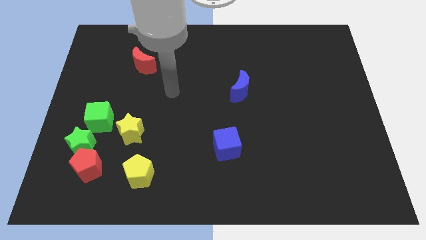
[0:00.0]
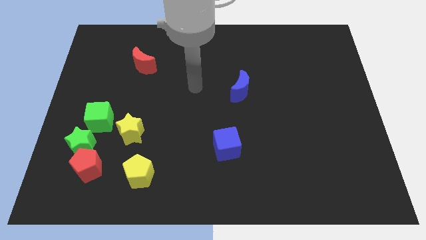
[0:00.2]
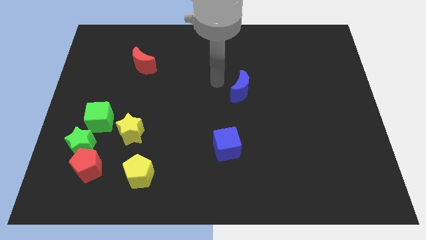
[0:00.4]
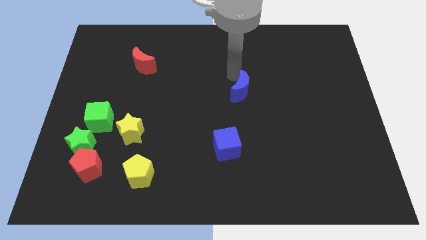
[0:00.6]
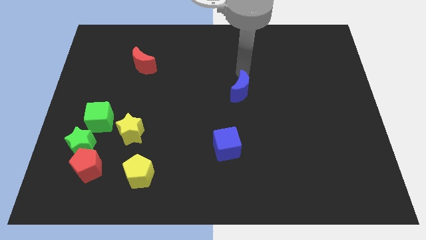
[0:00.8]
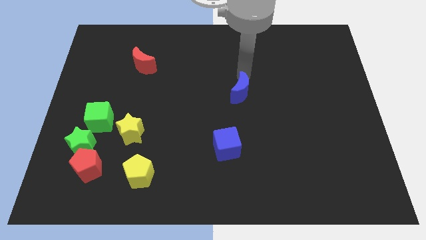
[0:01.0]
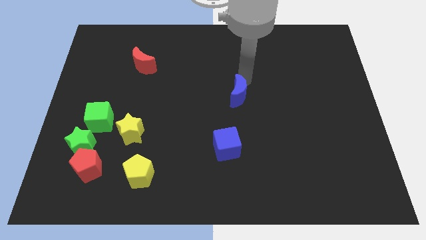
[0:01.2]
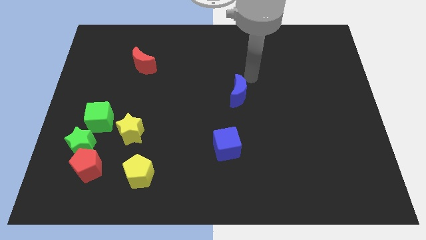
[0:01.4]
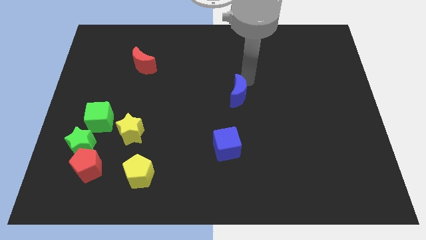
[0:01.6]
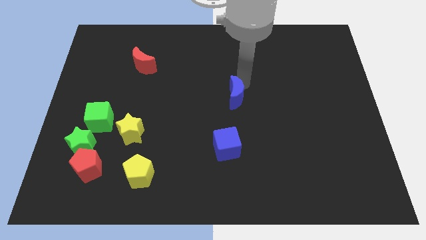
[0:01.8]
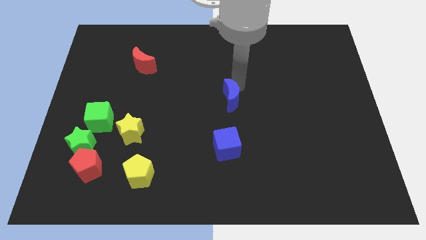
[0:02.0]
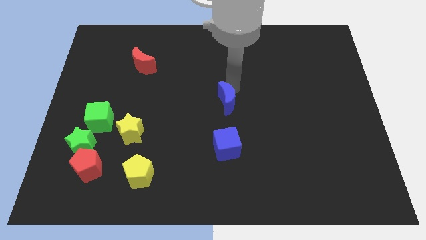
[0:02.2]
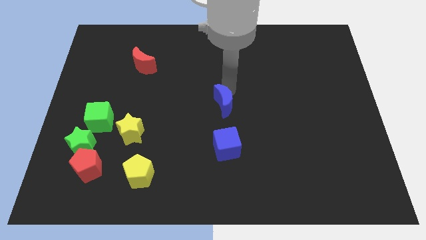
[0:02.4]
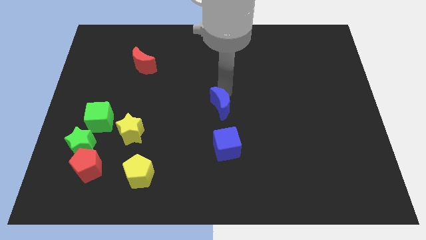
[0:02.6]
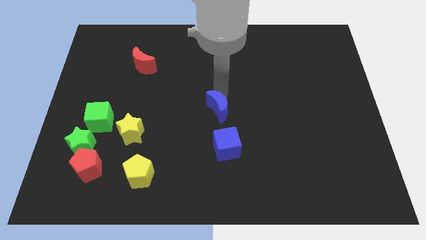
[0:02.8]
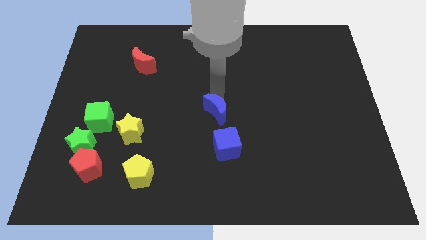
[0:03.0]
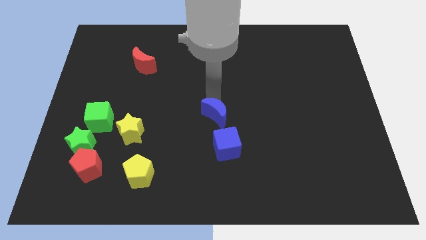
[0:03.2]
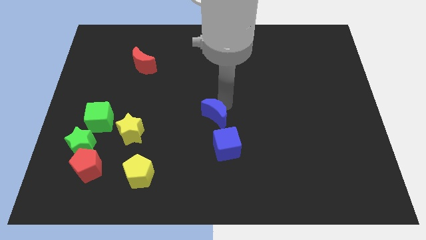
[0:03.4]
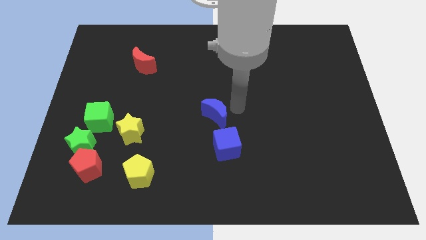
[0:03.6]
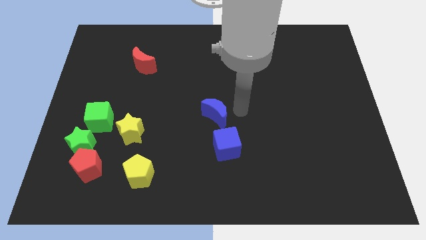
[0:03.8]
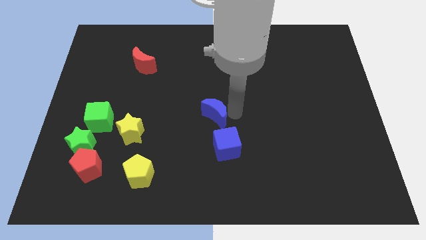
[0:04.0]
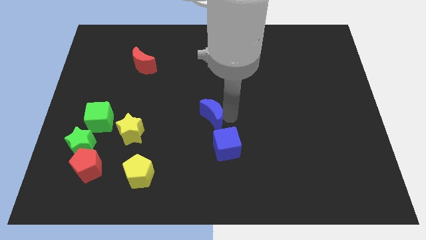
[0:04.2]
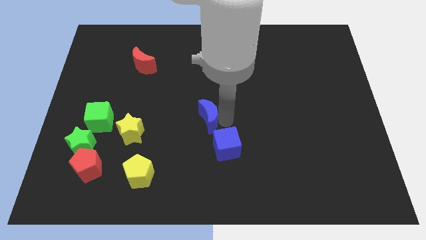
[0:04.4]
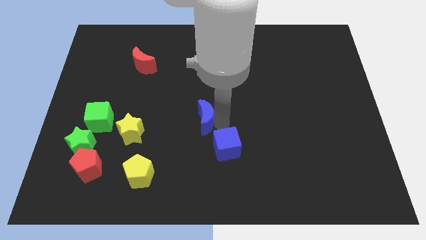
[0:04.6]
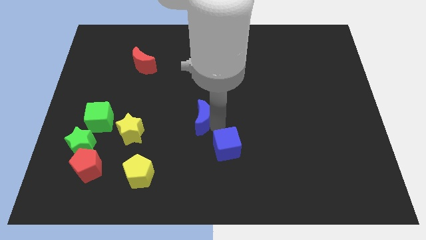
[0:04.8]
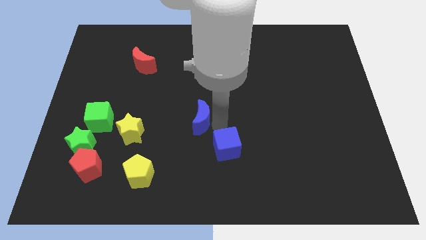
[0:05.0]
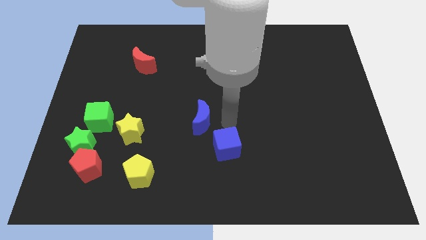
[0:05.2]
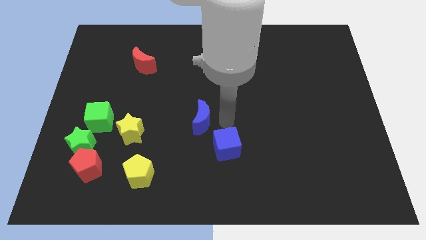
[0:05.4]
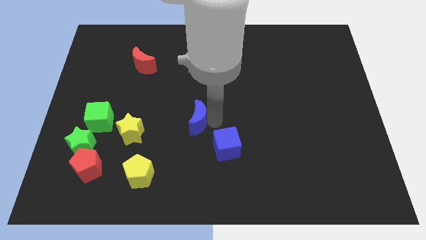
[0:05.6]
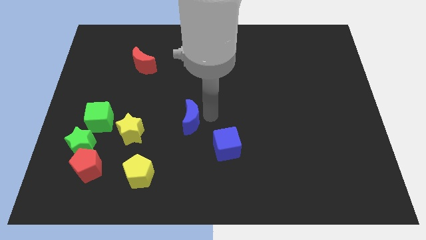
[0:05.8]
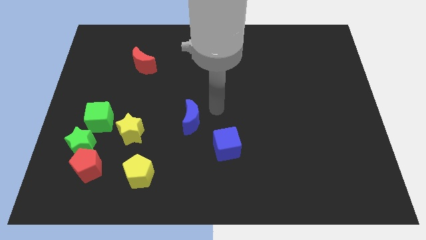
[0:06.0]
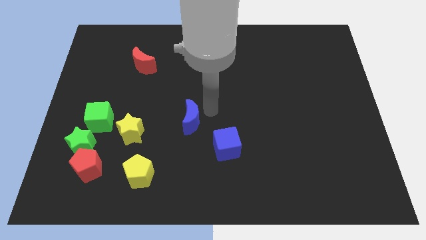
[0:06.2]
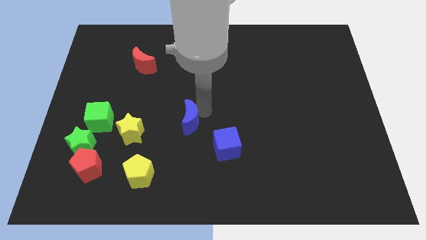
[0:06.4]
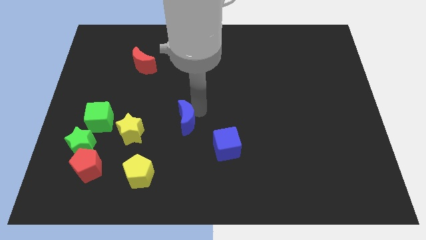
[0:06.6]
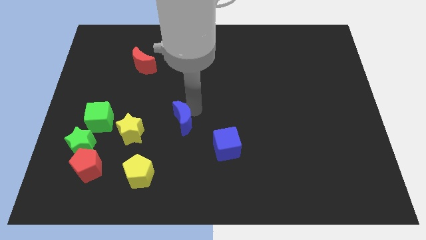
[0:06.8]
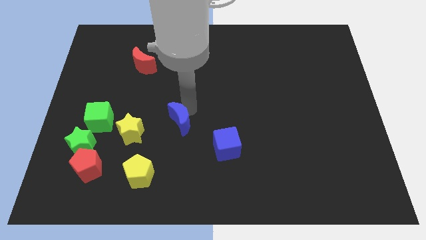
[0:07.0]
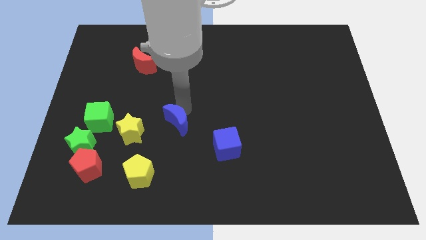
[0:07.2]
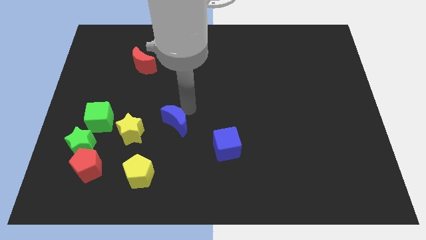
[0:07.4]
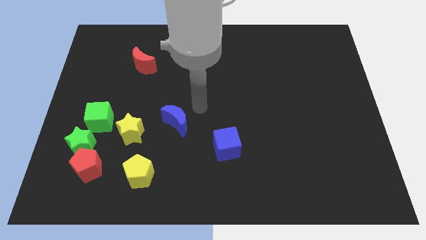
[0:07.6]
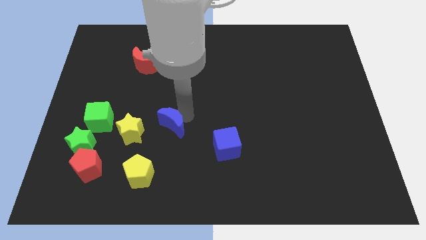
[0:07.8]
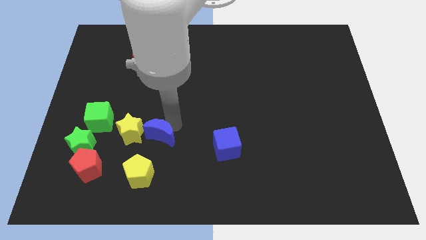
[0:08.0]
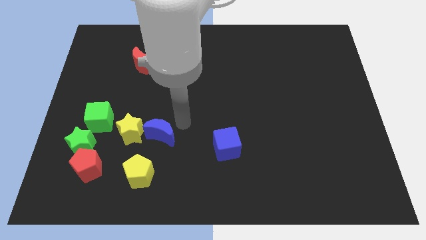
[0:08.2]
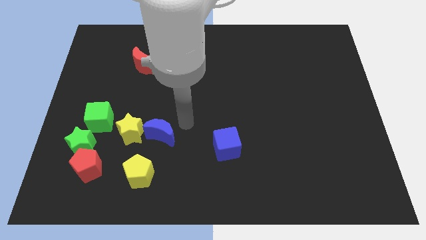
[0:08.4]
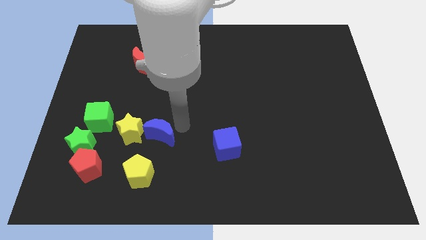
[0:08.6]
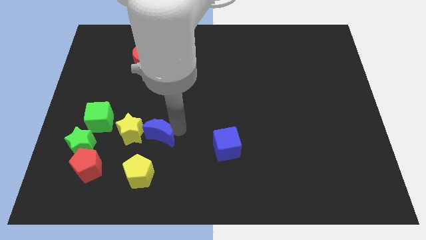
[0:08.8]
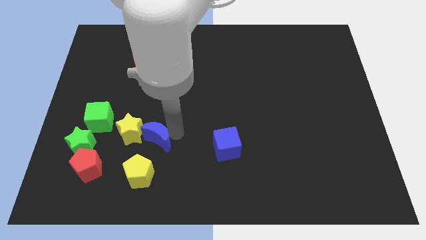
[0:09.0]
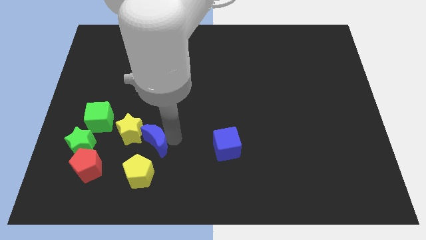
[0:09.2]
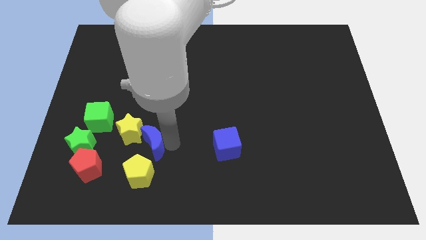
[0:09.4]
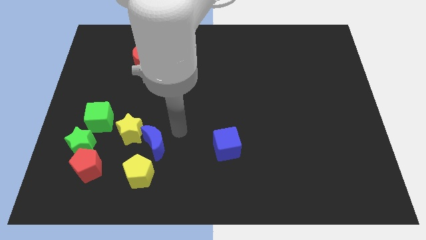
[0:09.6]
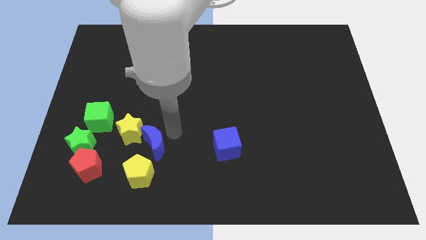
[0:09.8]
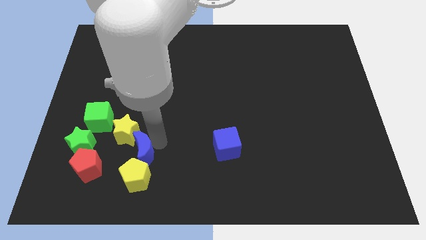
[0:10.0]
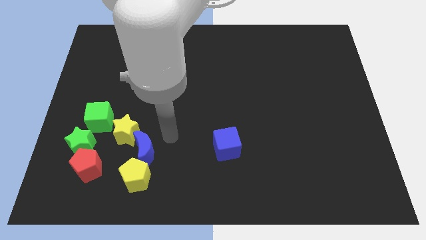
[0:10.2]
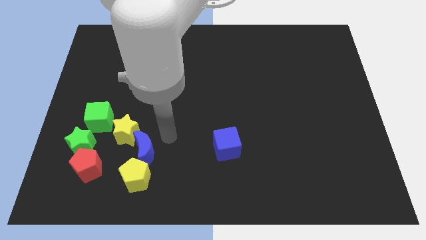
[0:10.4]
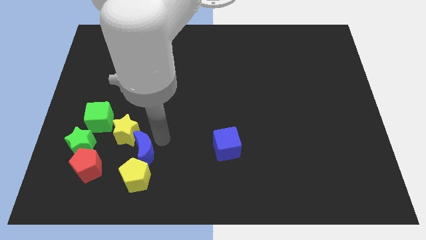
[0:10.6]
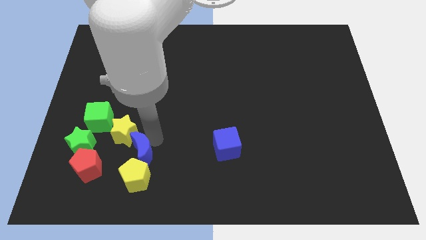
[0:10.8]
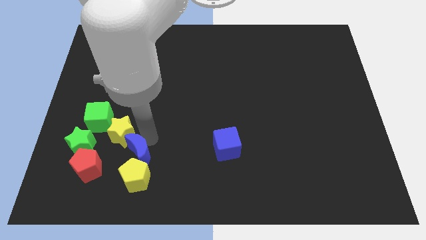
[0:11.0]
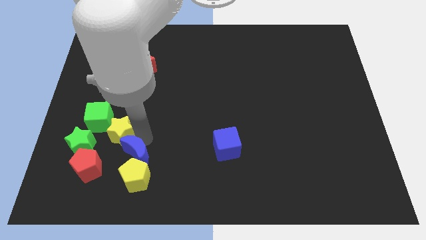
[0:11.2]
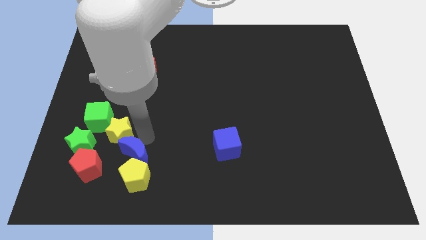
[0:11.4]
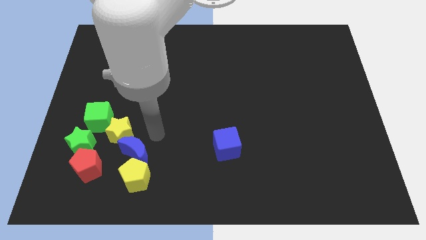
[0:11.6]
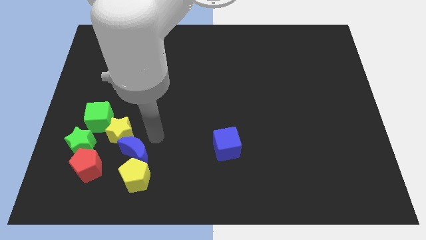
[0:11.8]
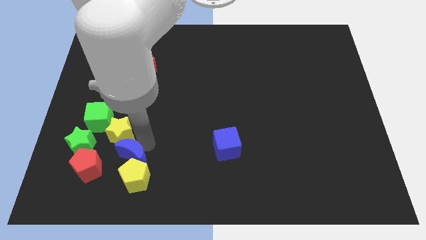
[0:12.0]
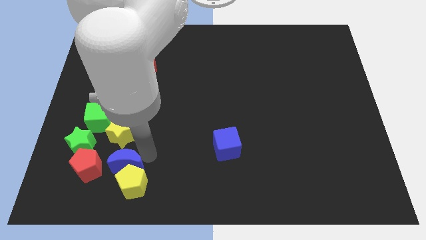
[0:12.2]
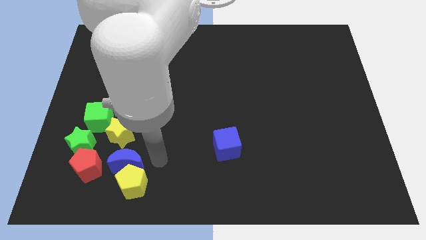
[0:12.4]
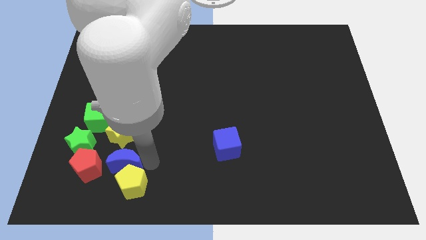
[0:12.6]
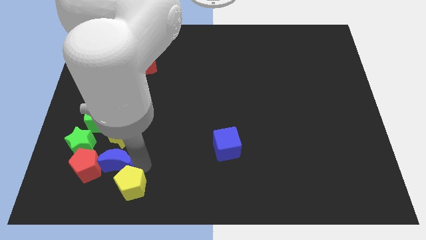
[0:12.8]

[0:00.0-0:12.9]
put the blue moon to the red pentagon

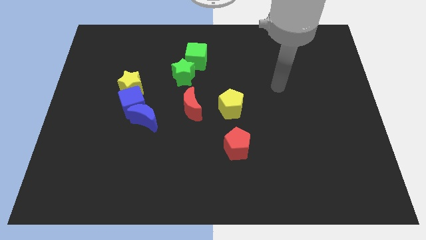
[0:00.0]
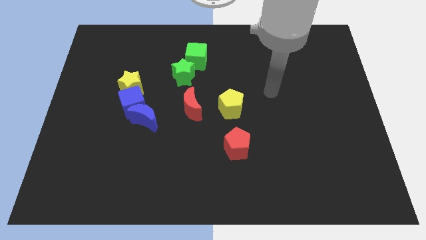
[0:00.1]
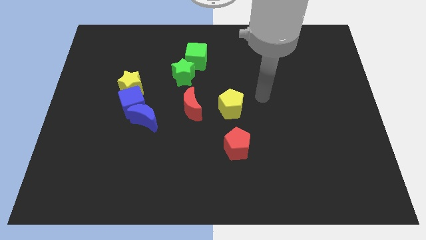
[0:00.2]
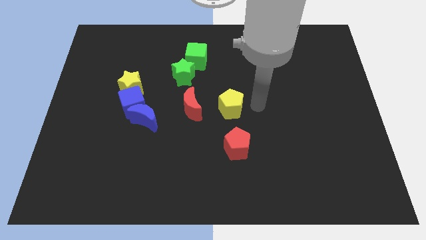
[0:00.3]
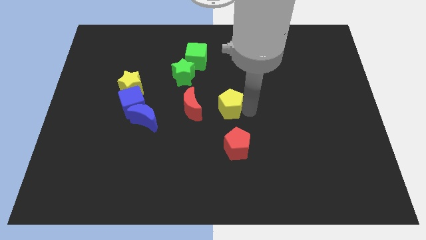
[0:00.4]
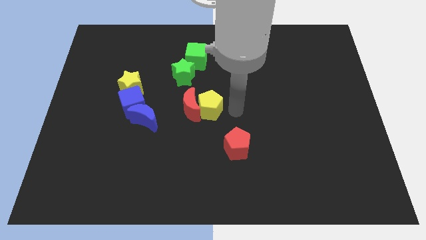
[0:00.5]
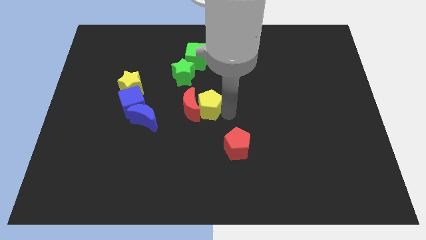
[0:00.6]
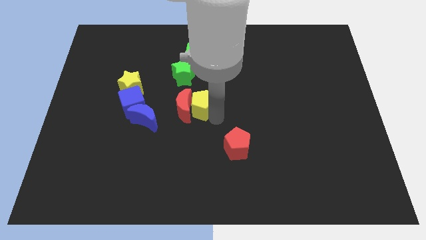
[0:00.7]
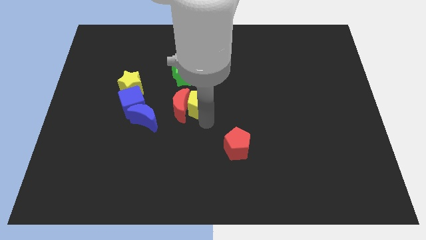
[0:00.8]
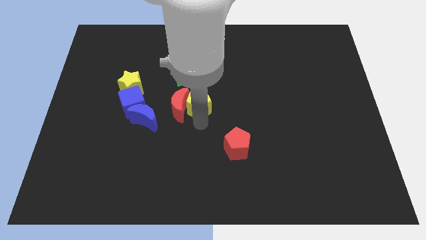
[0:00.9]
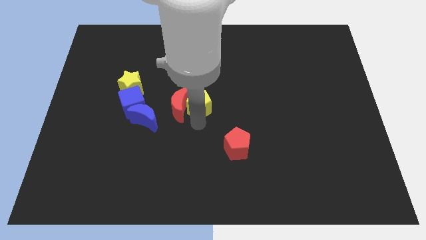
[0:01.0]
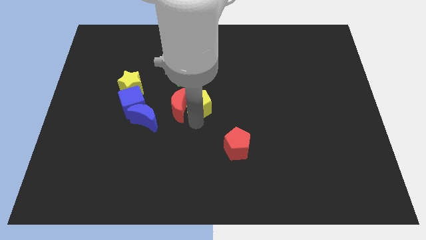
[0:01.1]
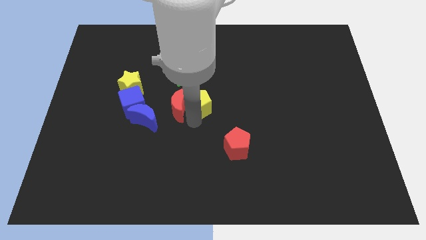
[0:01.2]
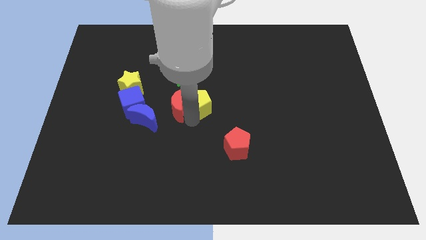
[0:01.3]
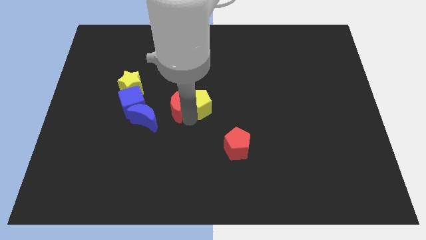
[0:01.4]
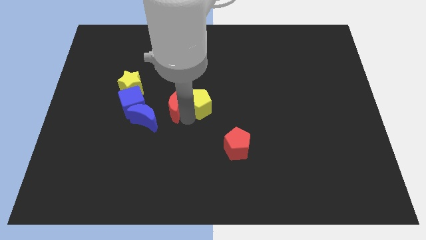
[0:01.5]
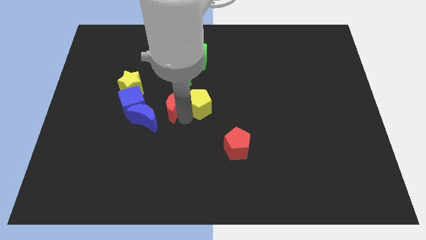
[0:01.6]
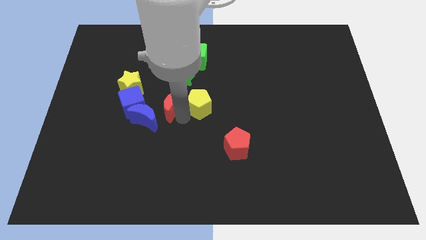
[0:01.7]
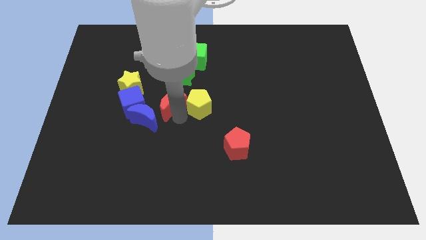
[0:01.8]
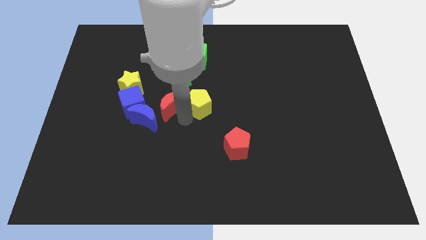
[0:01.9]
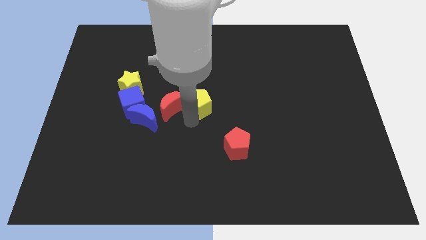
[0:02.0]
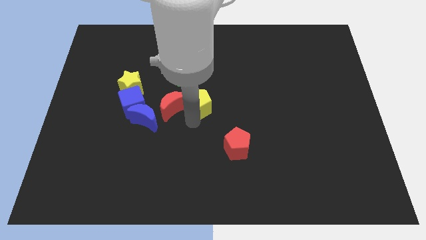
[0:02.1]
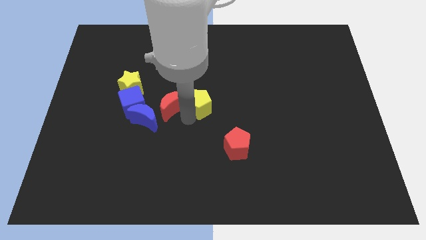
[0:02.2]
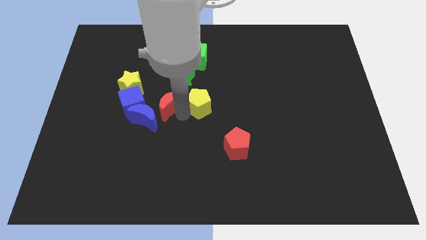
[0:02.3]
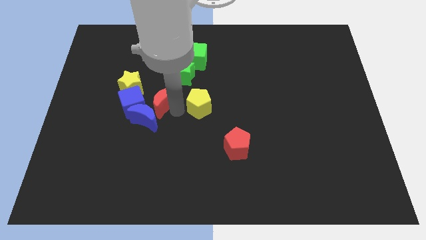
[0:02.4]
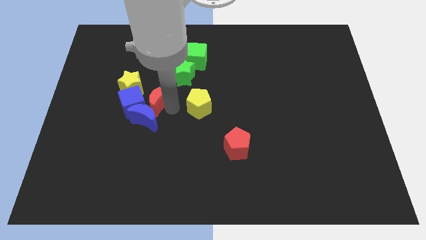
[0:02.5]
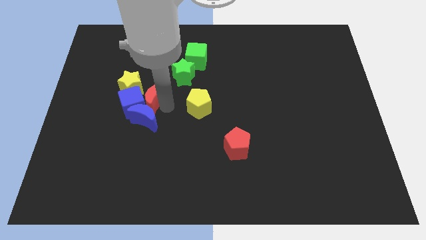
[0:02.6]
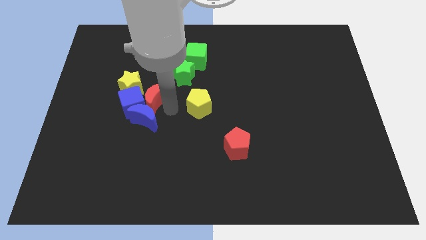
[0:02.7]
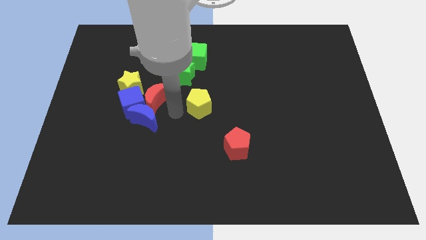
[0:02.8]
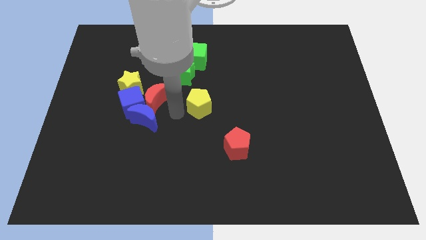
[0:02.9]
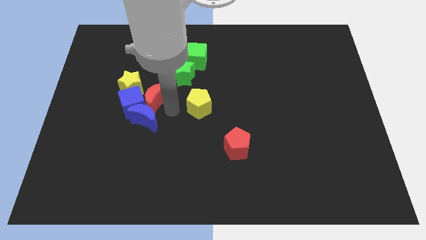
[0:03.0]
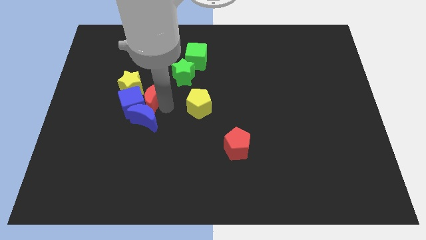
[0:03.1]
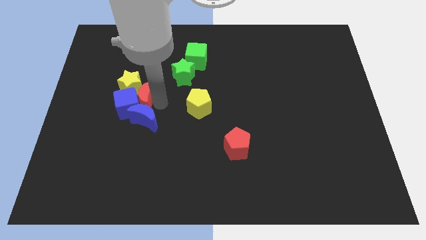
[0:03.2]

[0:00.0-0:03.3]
put the red moon towards the yellow star
